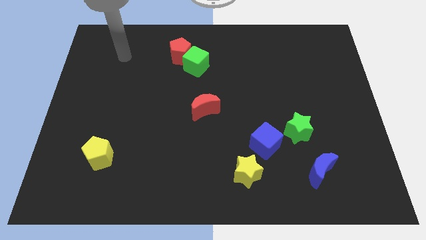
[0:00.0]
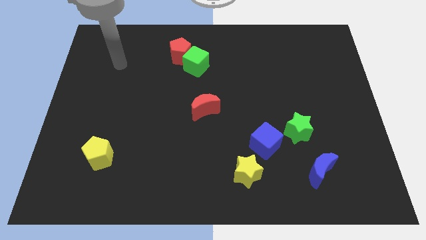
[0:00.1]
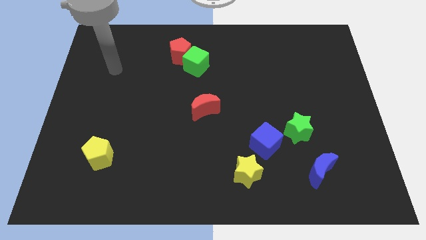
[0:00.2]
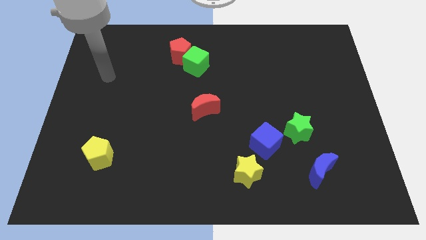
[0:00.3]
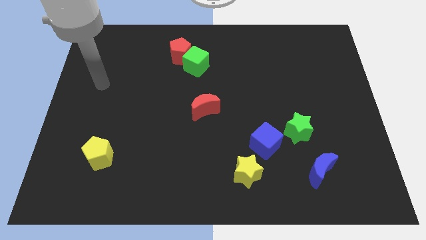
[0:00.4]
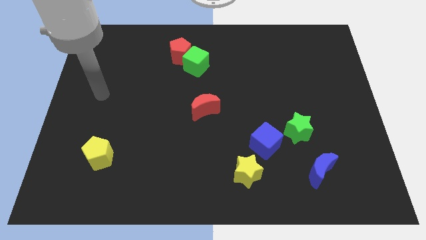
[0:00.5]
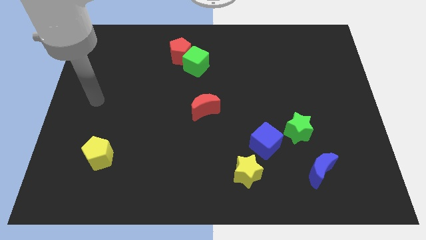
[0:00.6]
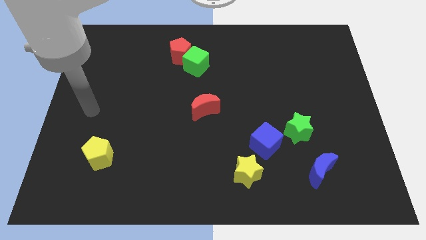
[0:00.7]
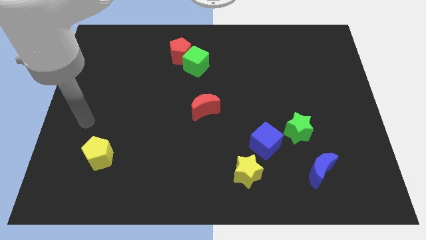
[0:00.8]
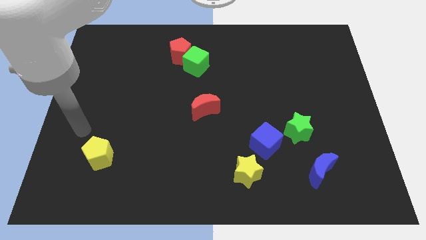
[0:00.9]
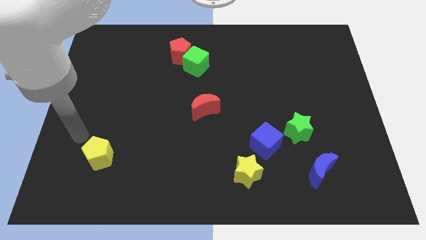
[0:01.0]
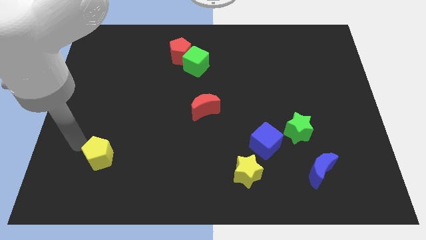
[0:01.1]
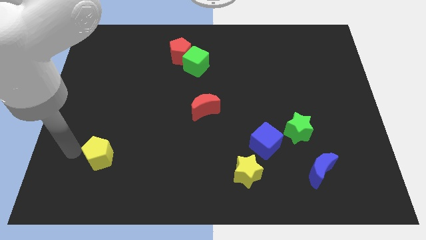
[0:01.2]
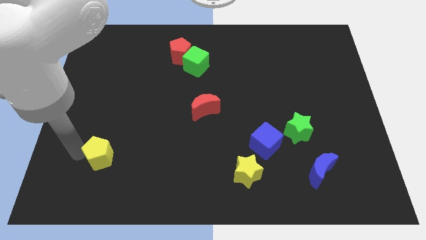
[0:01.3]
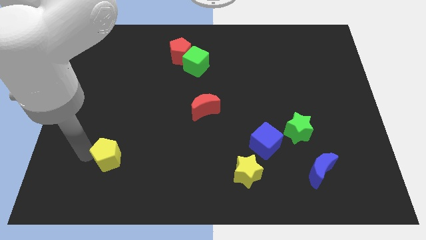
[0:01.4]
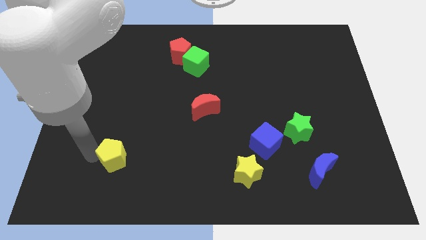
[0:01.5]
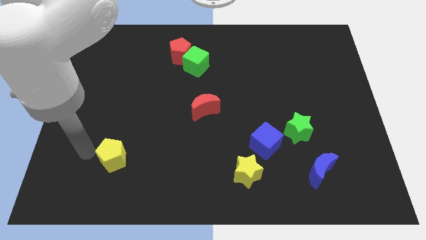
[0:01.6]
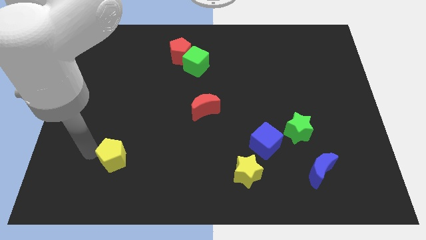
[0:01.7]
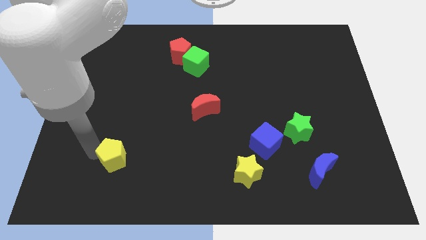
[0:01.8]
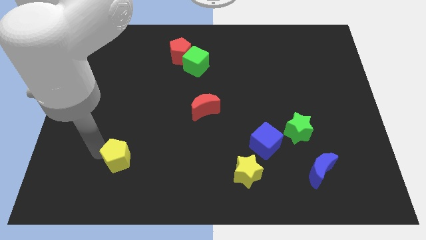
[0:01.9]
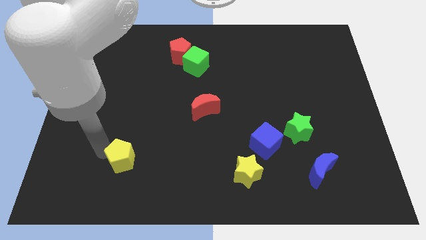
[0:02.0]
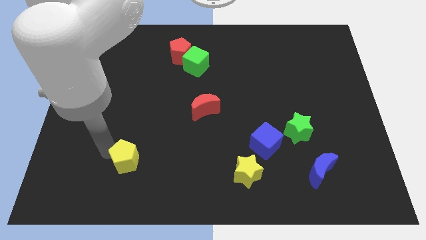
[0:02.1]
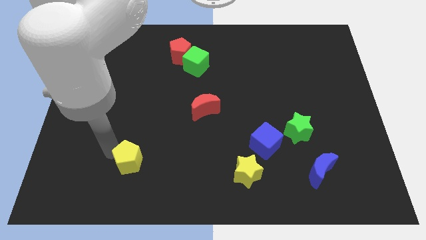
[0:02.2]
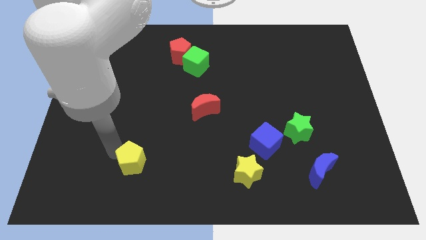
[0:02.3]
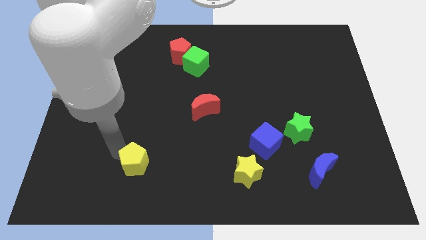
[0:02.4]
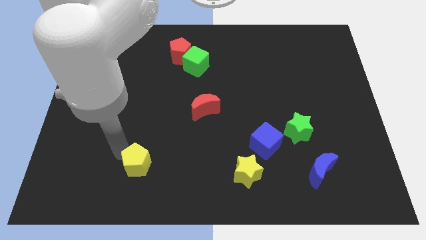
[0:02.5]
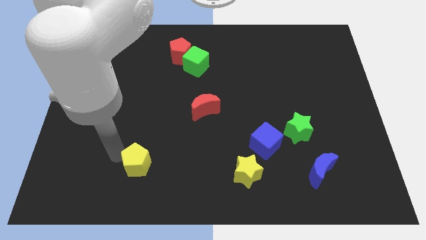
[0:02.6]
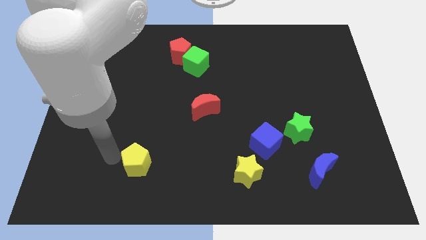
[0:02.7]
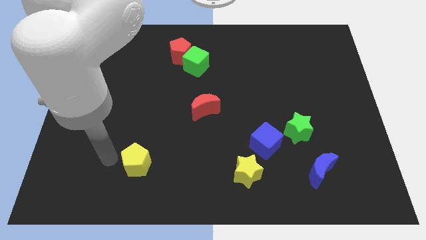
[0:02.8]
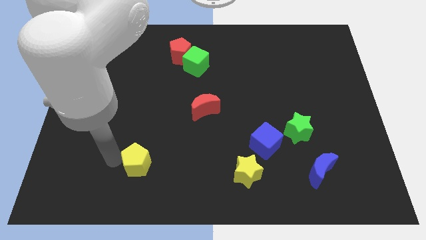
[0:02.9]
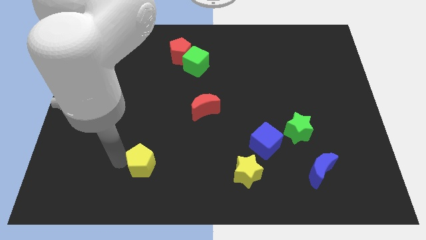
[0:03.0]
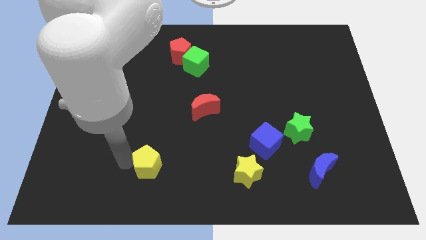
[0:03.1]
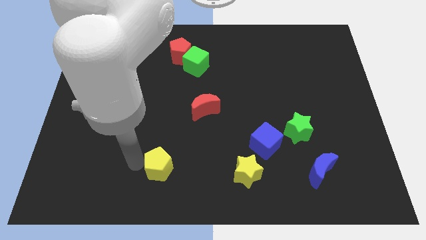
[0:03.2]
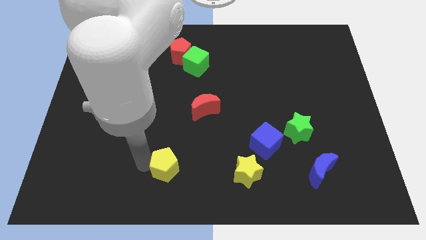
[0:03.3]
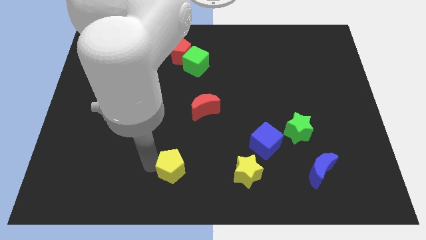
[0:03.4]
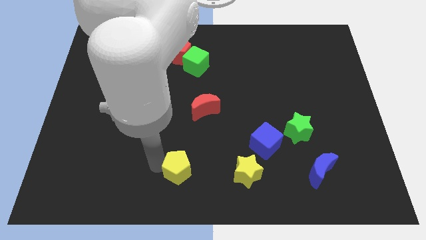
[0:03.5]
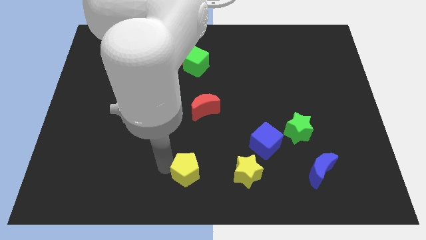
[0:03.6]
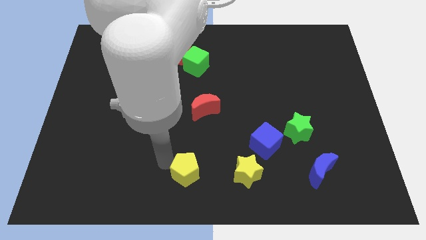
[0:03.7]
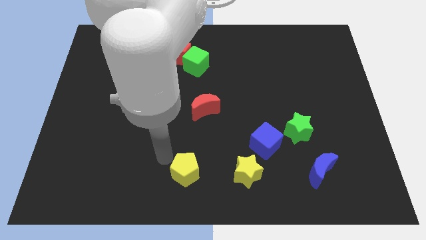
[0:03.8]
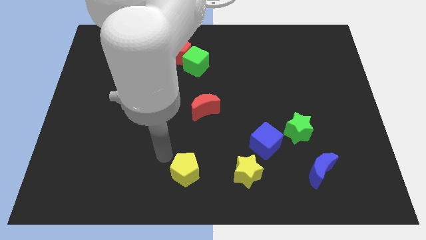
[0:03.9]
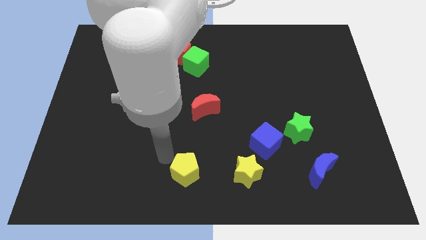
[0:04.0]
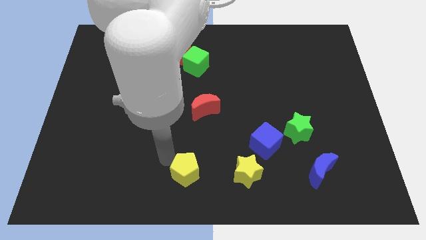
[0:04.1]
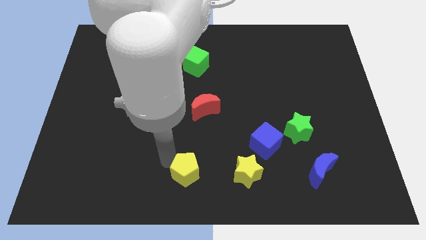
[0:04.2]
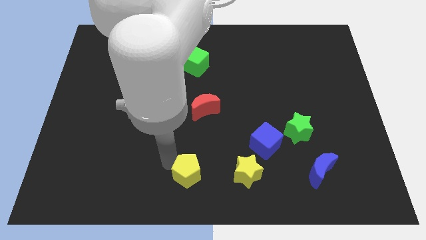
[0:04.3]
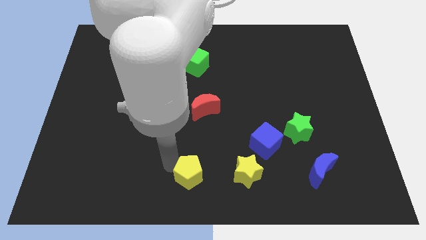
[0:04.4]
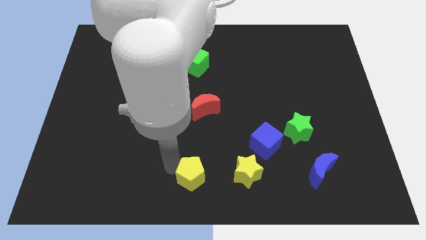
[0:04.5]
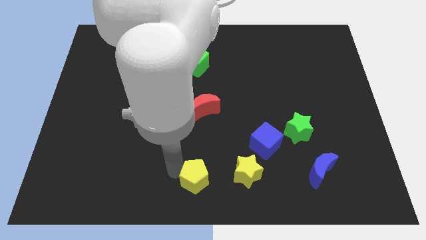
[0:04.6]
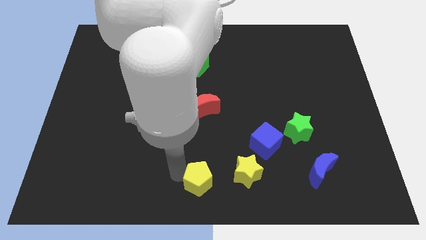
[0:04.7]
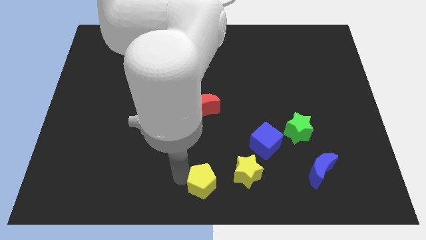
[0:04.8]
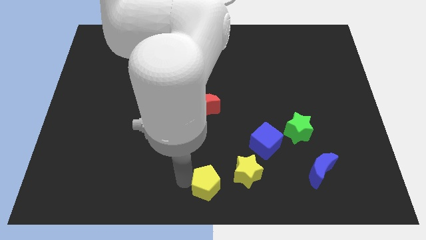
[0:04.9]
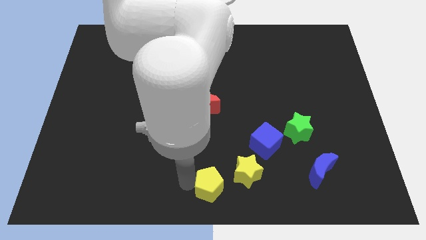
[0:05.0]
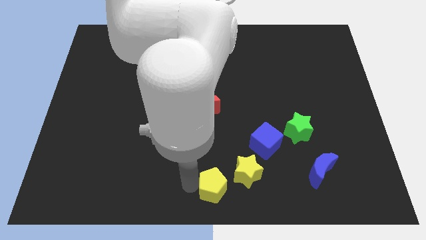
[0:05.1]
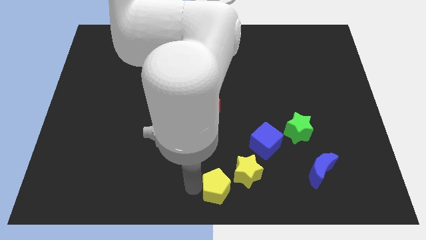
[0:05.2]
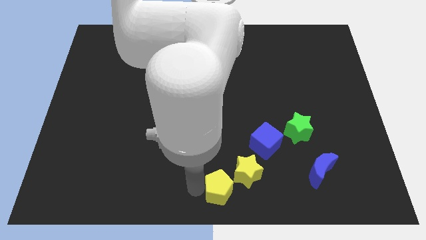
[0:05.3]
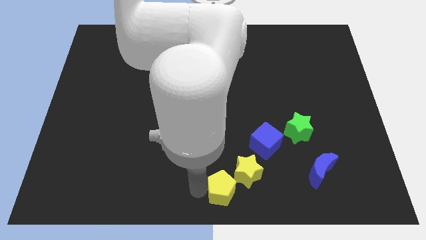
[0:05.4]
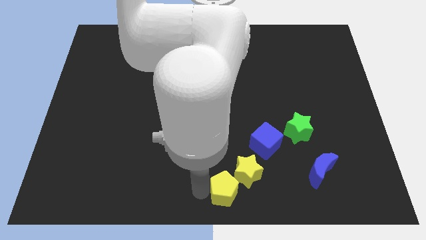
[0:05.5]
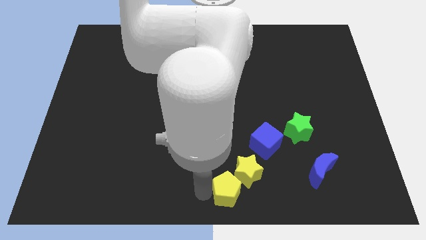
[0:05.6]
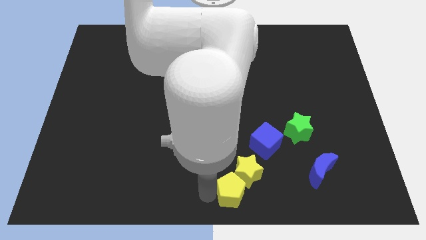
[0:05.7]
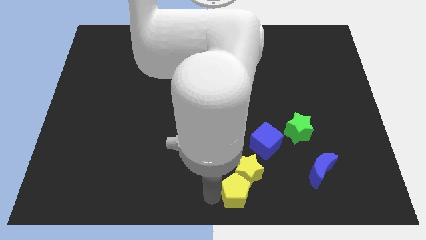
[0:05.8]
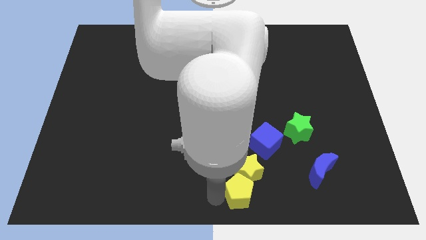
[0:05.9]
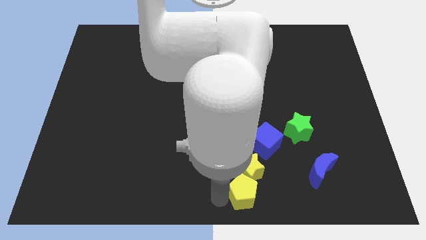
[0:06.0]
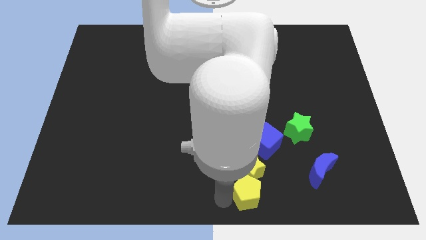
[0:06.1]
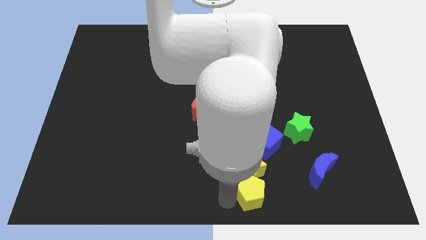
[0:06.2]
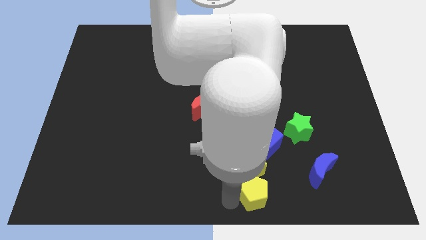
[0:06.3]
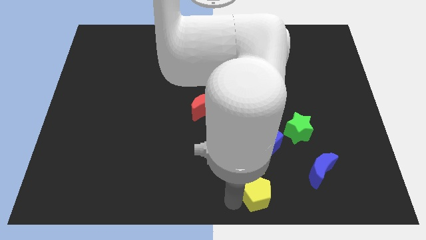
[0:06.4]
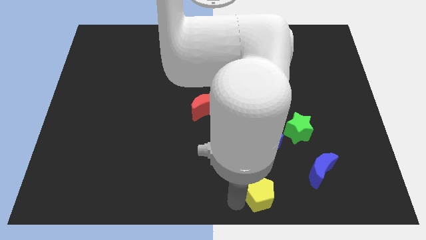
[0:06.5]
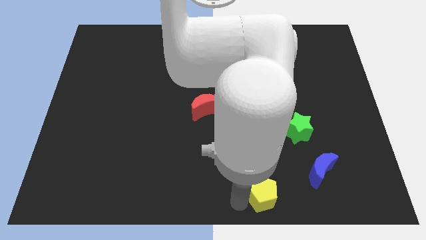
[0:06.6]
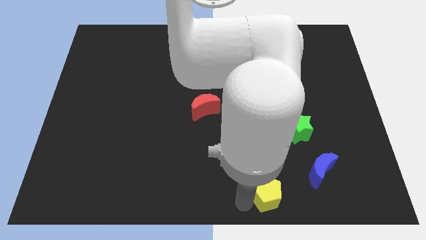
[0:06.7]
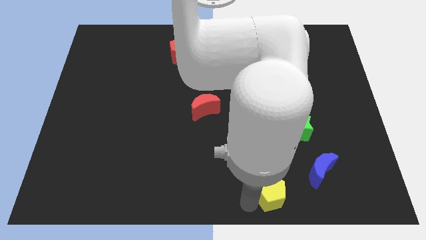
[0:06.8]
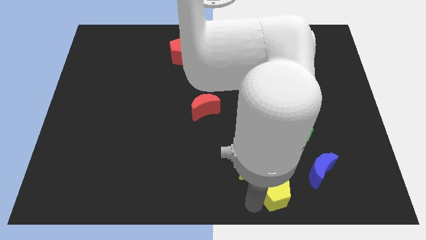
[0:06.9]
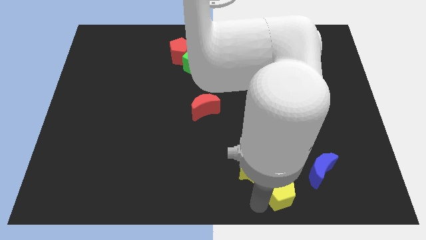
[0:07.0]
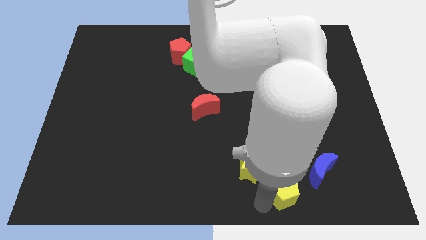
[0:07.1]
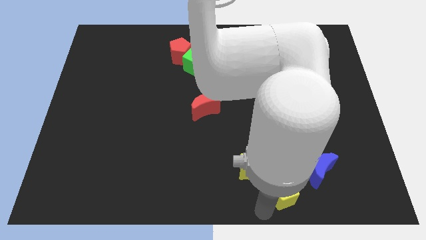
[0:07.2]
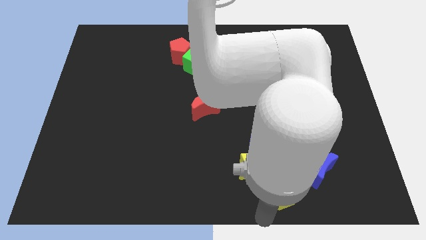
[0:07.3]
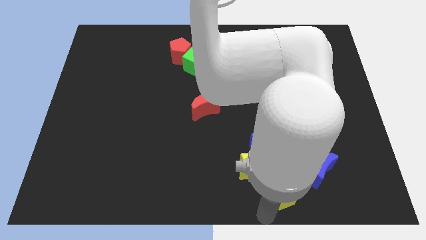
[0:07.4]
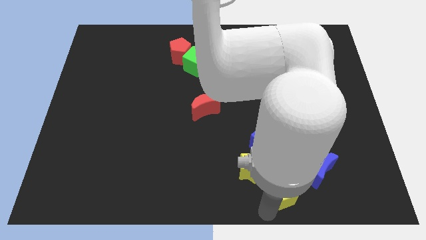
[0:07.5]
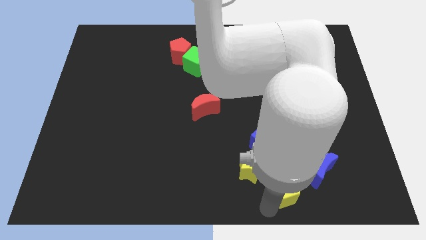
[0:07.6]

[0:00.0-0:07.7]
move the yellow pentagon just right of the yellow star

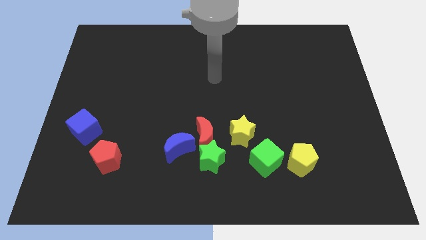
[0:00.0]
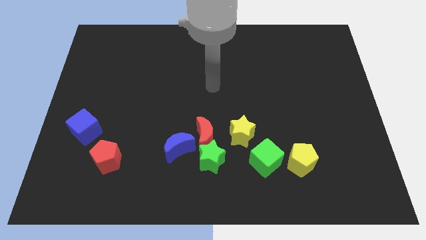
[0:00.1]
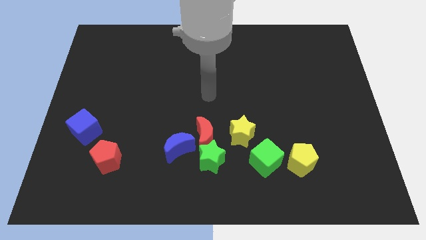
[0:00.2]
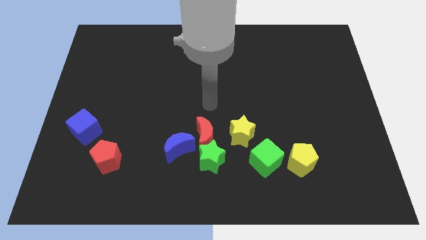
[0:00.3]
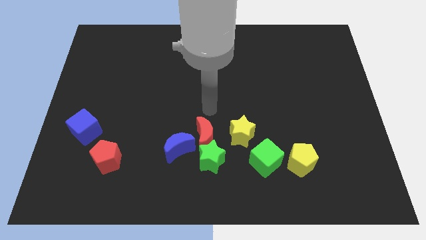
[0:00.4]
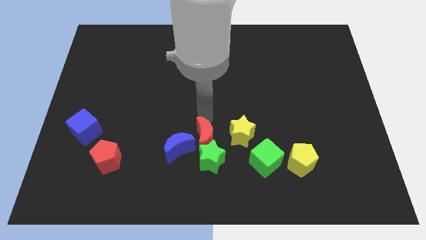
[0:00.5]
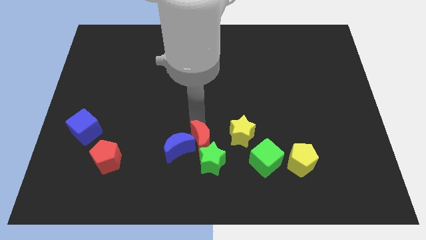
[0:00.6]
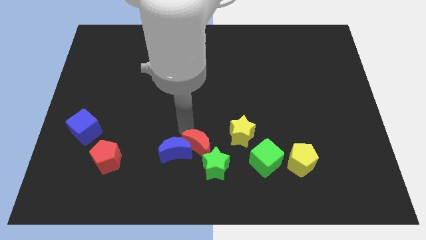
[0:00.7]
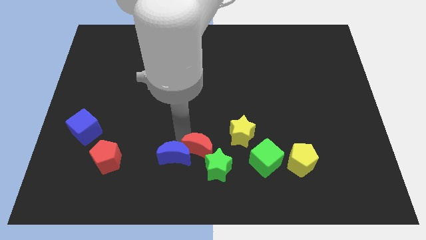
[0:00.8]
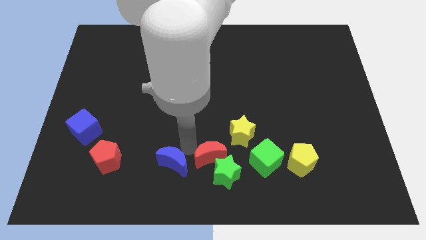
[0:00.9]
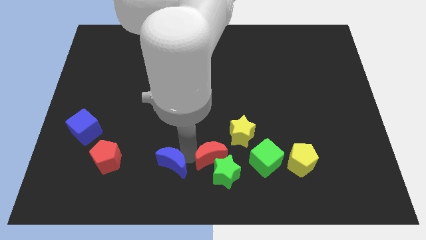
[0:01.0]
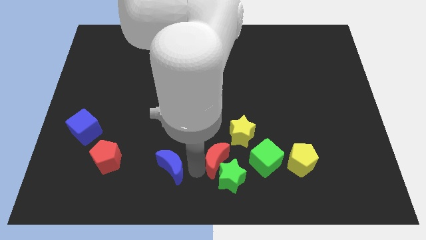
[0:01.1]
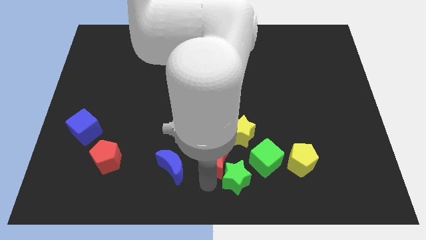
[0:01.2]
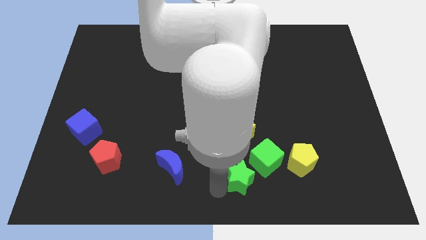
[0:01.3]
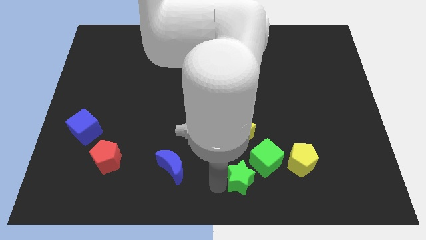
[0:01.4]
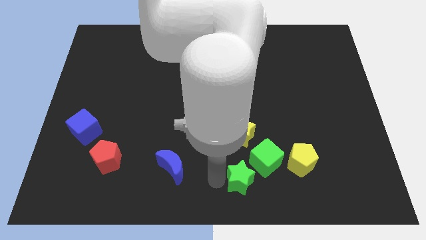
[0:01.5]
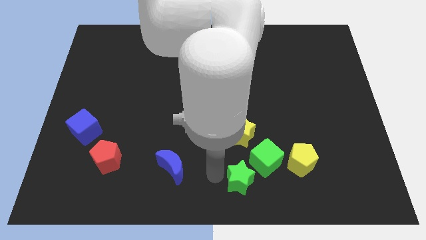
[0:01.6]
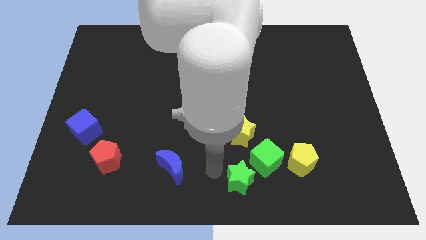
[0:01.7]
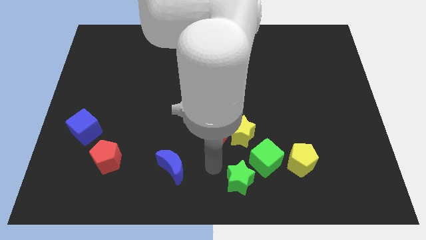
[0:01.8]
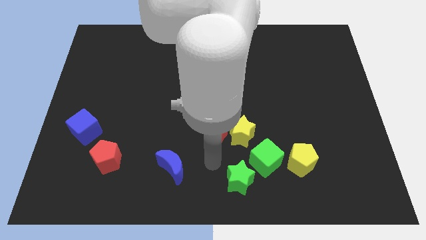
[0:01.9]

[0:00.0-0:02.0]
slide the red moon diagonally up and to the left of the yellow star
